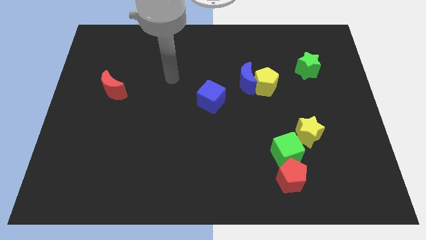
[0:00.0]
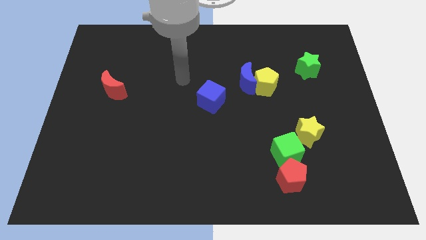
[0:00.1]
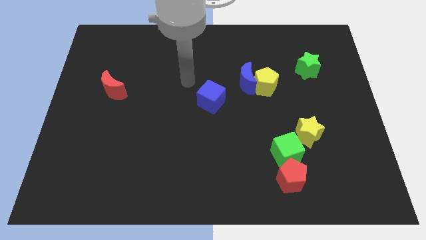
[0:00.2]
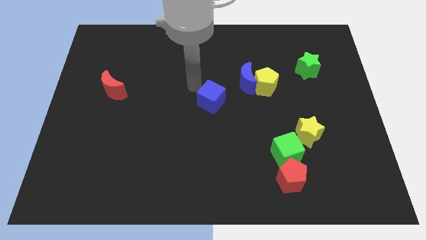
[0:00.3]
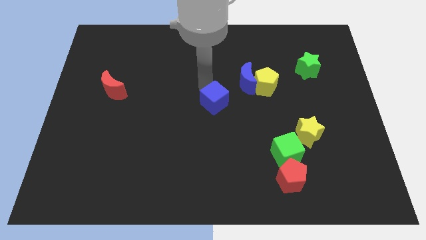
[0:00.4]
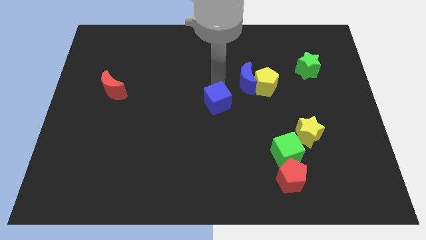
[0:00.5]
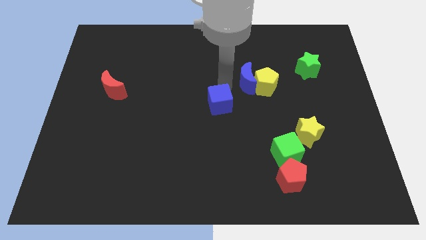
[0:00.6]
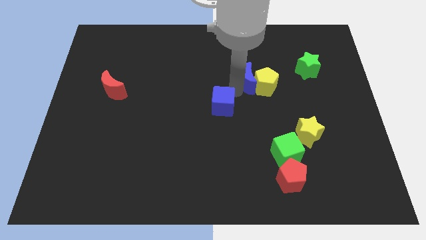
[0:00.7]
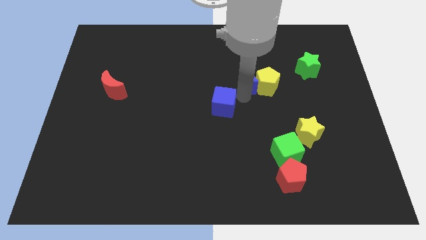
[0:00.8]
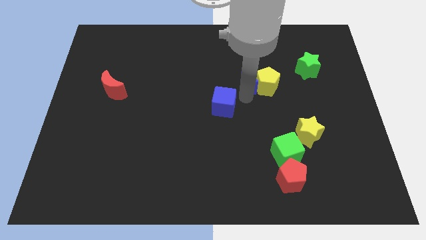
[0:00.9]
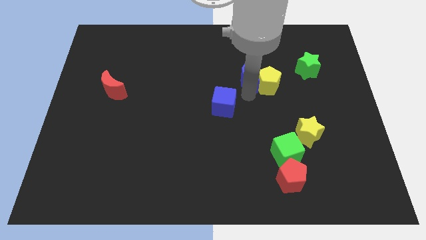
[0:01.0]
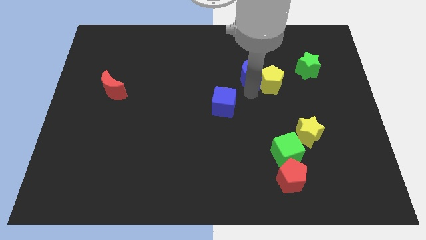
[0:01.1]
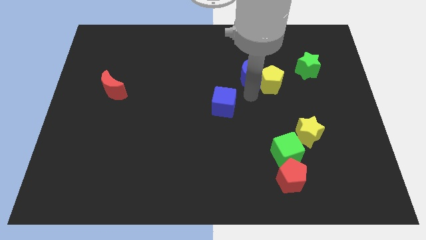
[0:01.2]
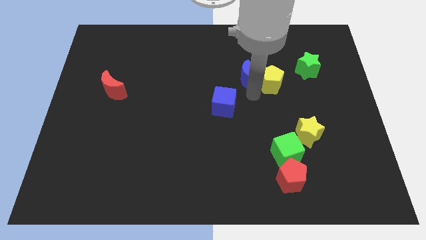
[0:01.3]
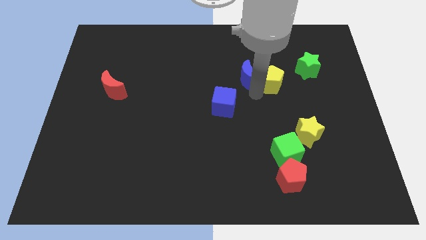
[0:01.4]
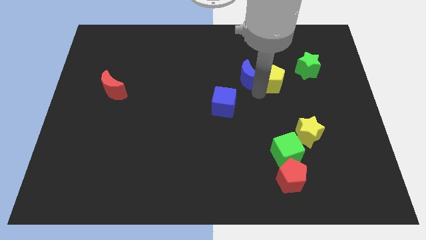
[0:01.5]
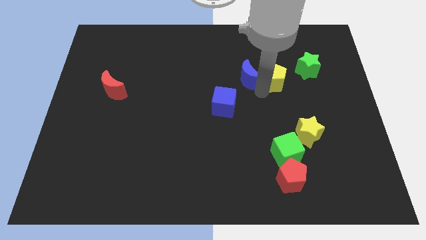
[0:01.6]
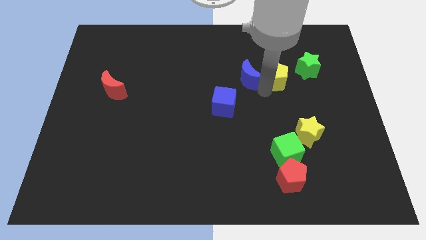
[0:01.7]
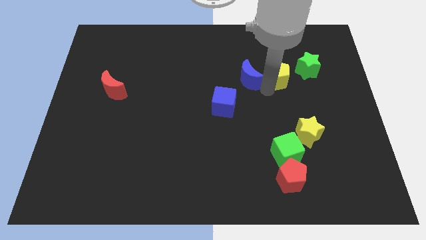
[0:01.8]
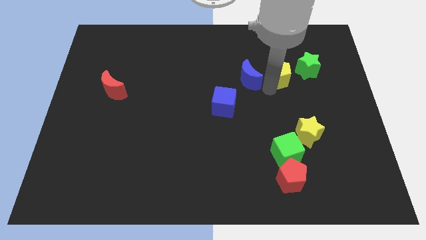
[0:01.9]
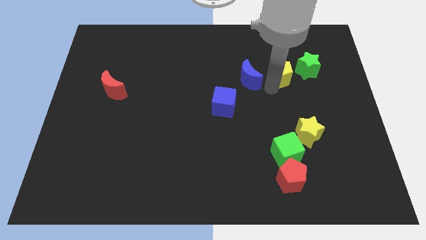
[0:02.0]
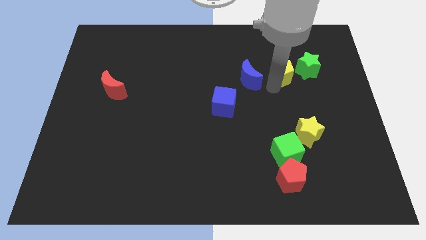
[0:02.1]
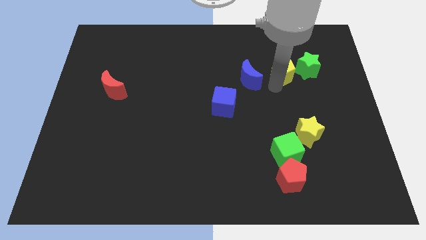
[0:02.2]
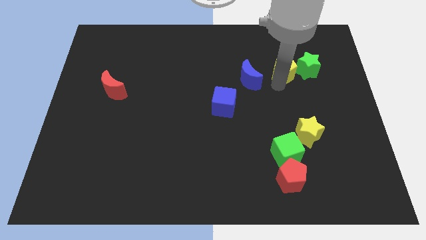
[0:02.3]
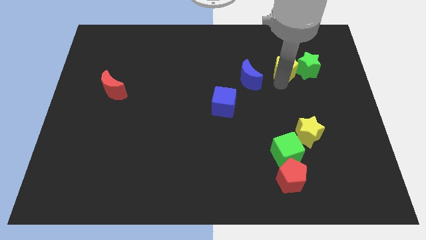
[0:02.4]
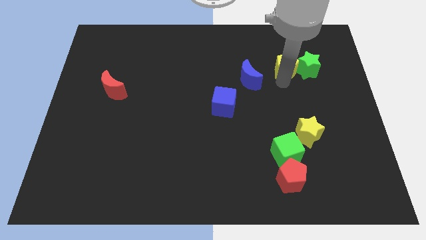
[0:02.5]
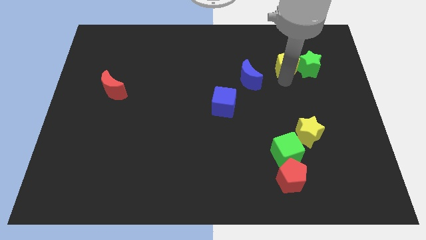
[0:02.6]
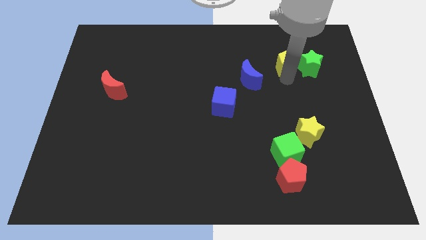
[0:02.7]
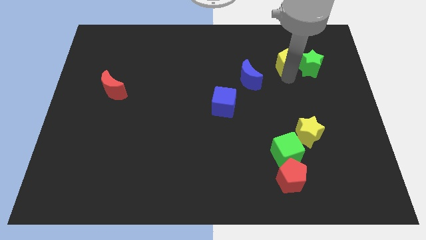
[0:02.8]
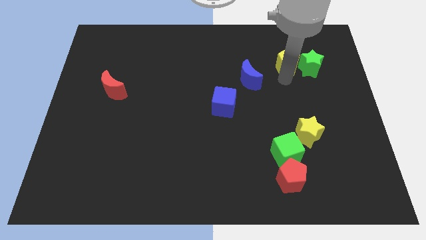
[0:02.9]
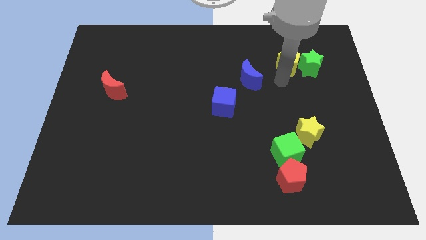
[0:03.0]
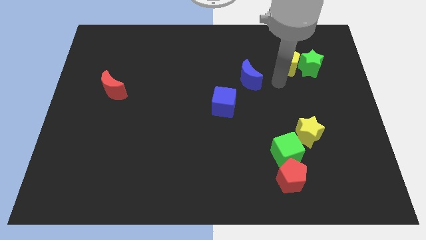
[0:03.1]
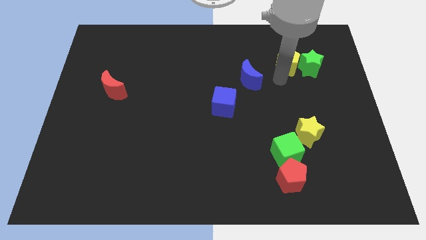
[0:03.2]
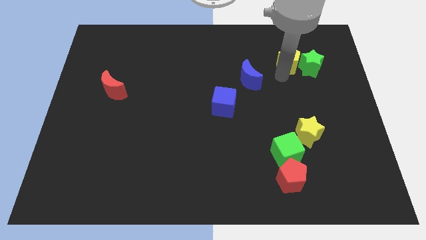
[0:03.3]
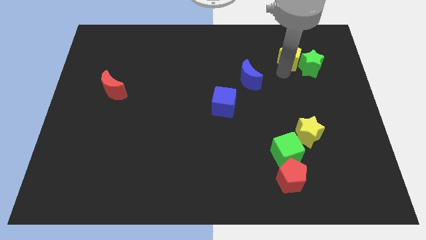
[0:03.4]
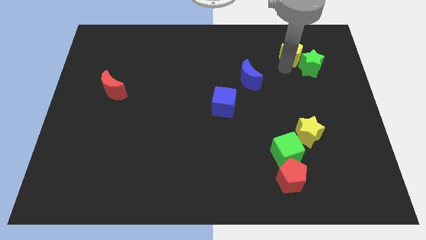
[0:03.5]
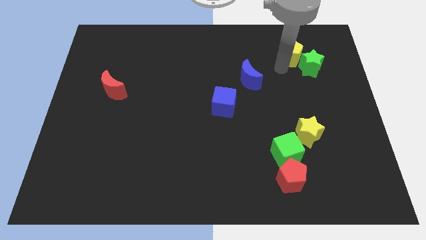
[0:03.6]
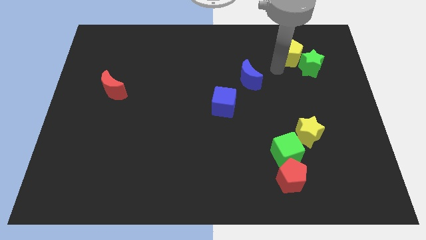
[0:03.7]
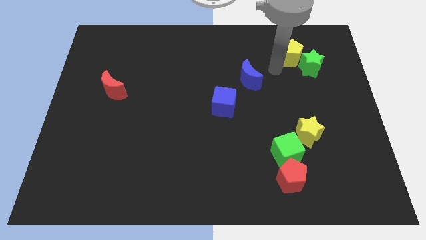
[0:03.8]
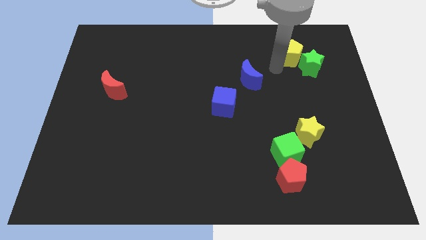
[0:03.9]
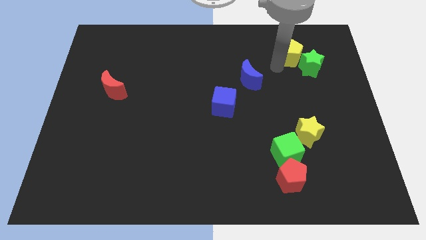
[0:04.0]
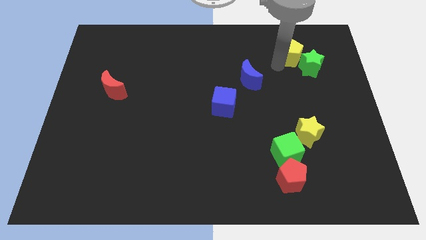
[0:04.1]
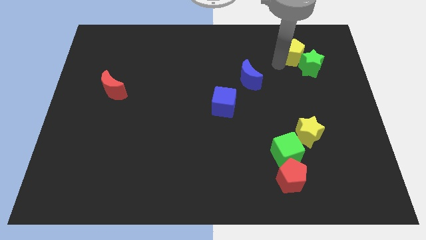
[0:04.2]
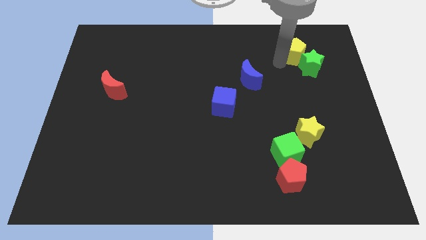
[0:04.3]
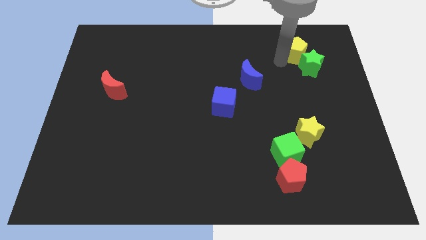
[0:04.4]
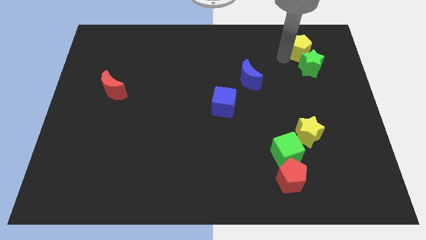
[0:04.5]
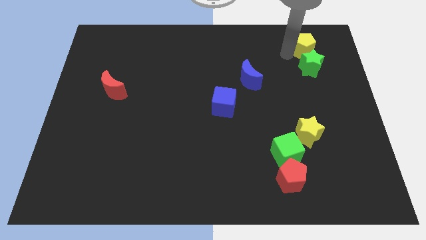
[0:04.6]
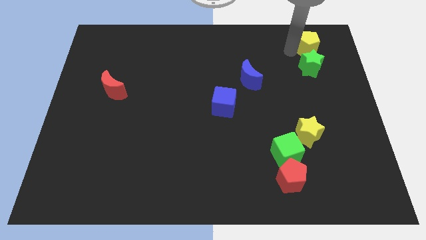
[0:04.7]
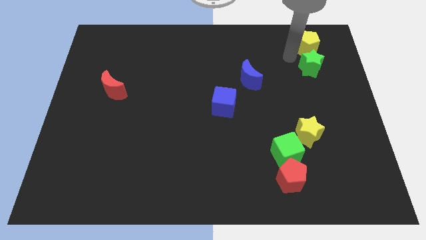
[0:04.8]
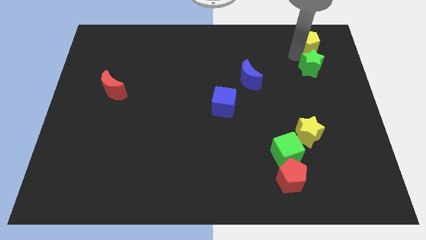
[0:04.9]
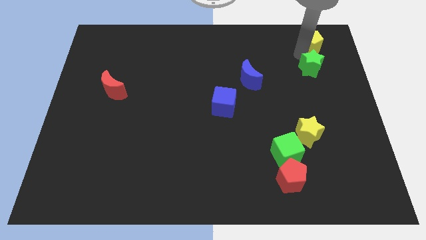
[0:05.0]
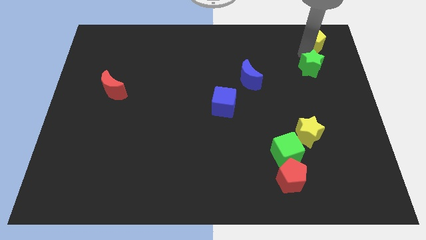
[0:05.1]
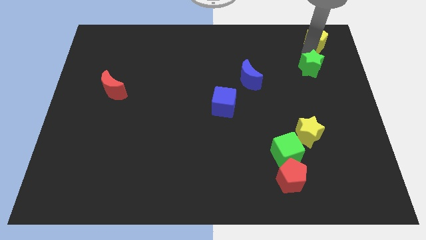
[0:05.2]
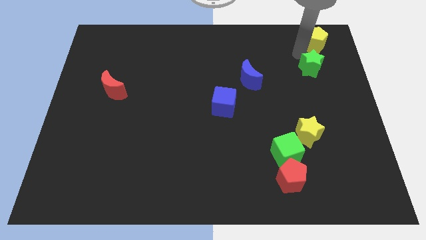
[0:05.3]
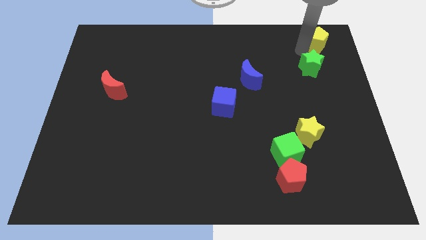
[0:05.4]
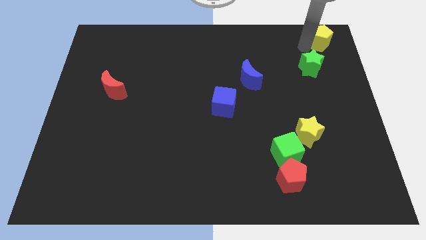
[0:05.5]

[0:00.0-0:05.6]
put the yellow pentagon to the top right corner
